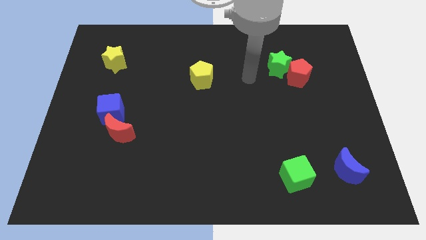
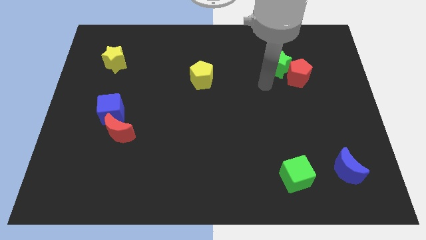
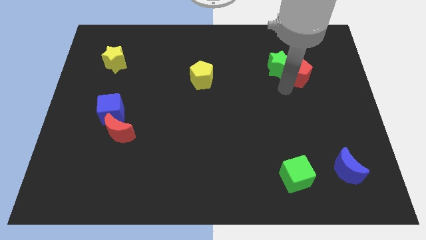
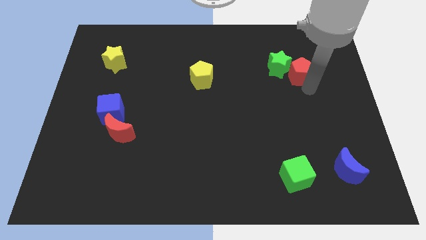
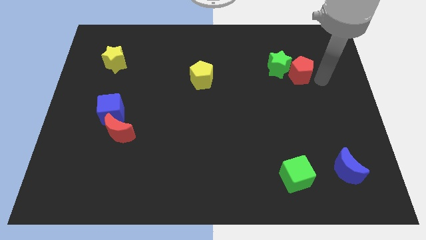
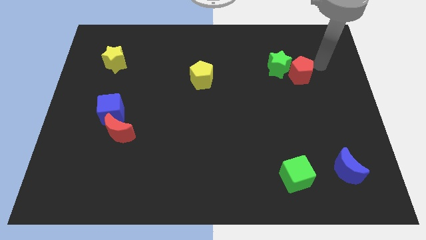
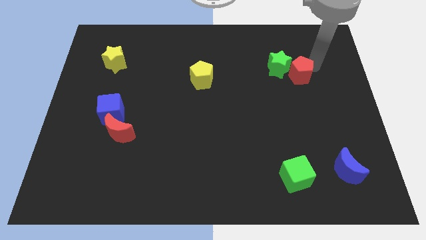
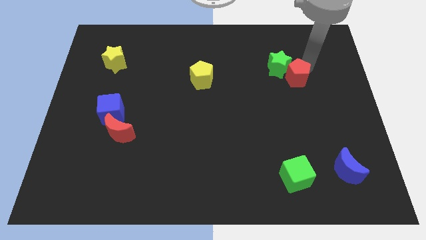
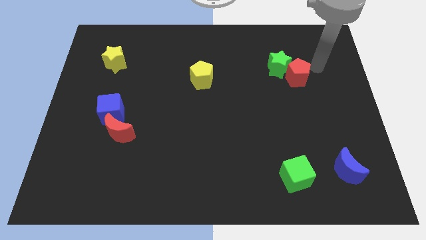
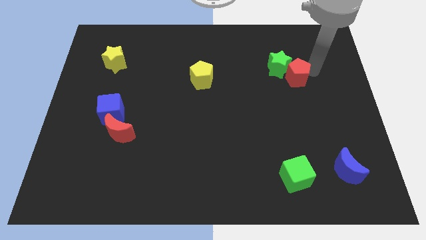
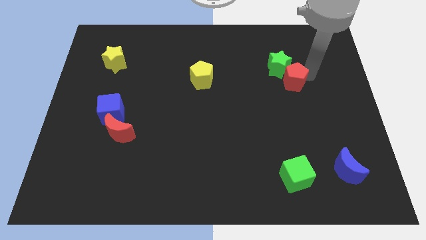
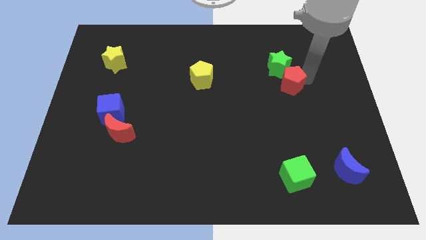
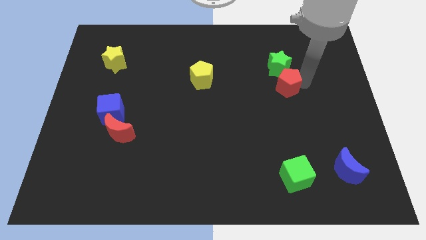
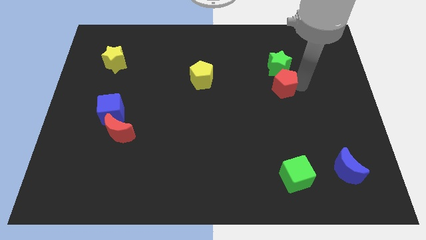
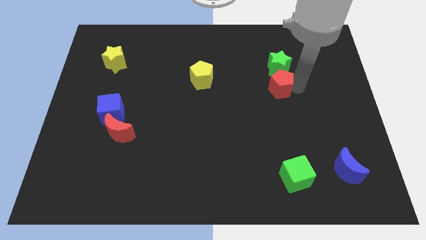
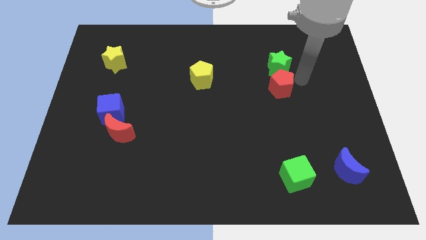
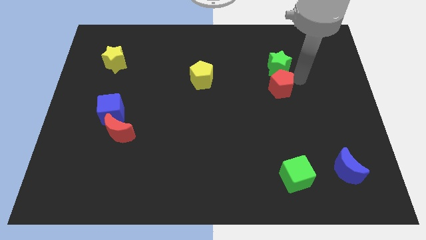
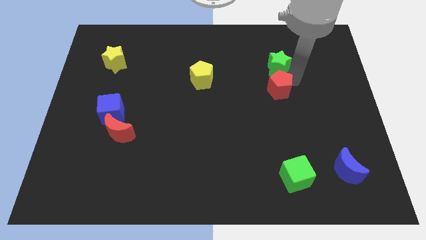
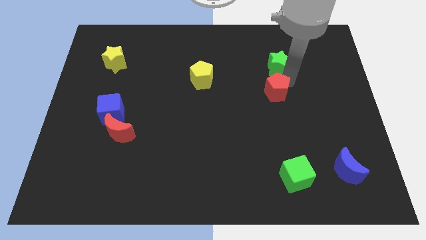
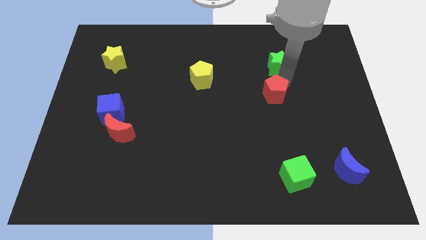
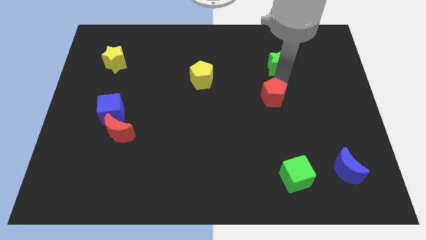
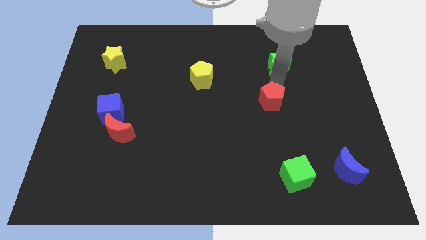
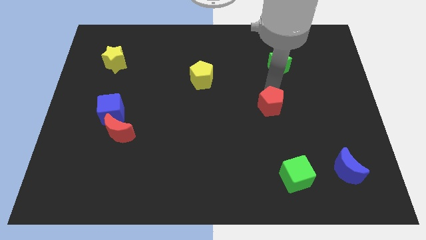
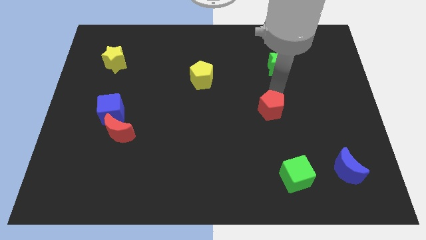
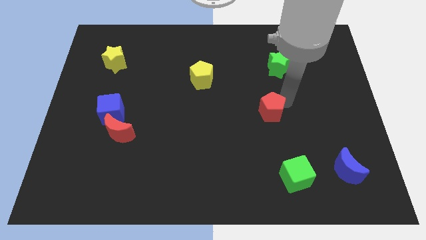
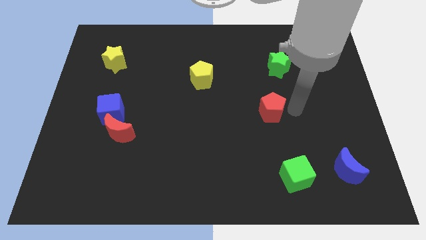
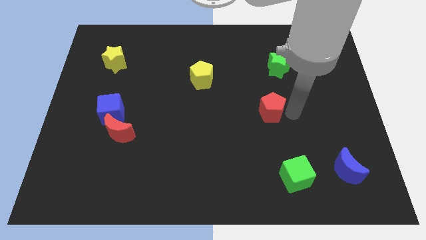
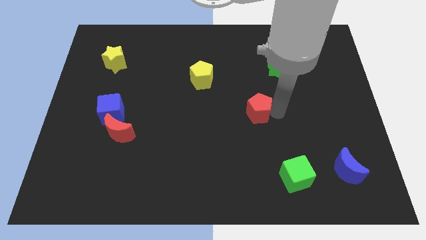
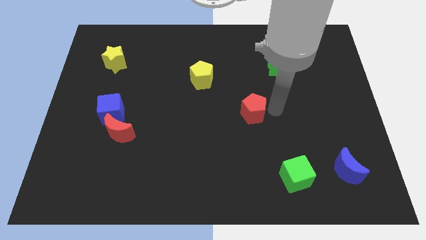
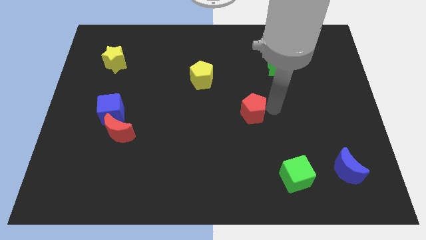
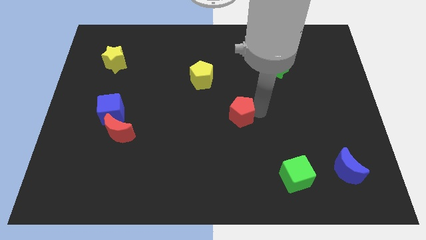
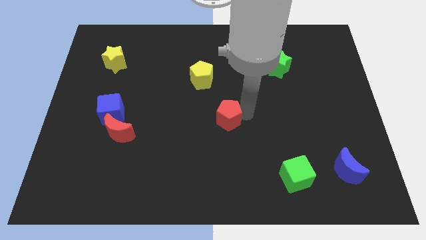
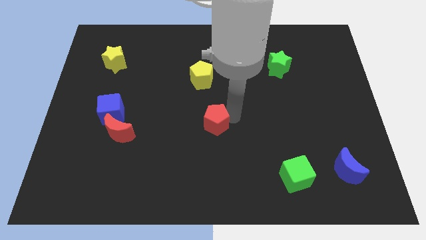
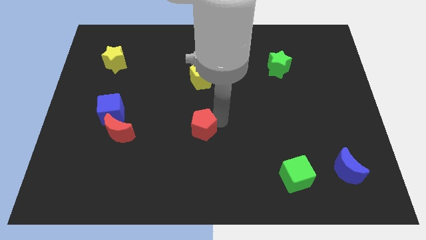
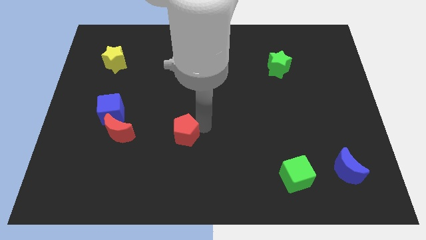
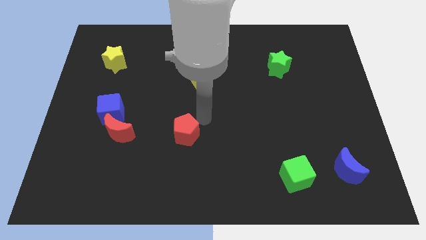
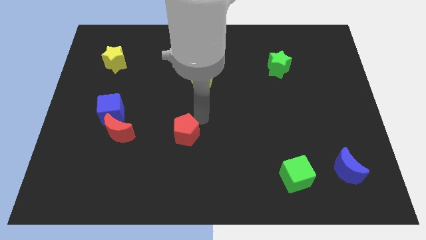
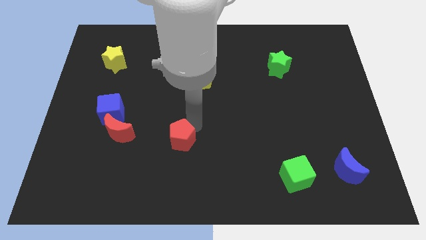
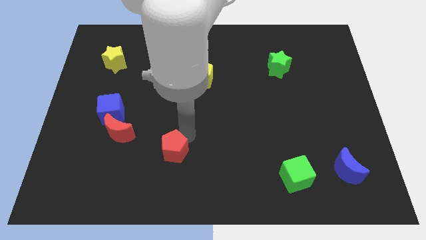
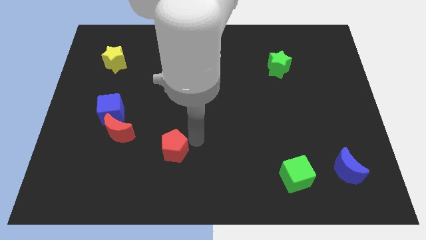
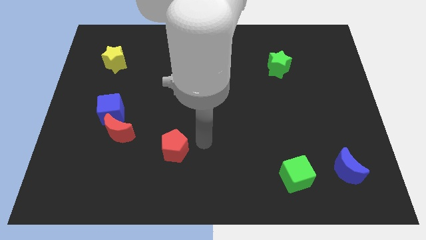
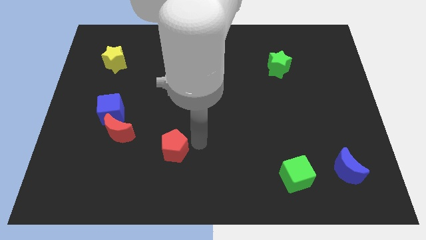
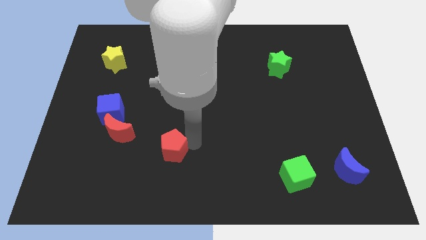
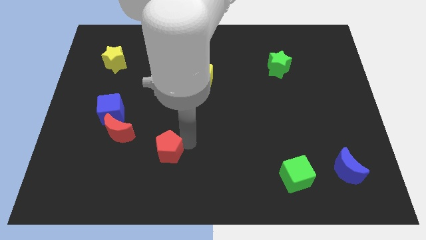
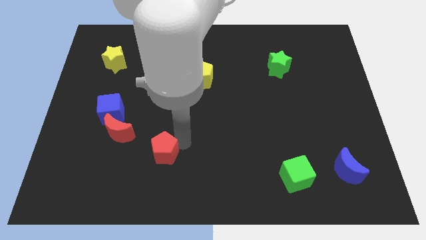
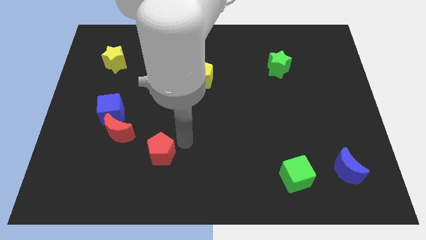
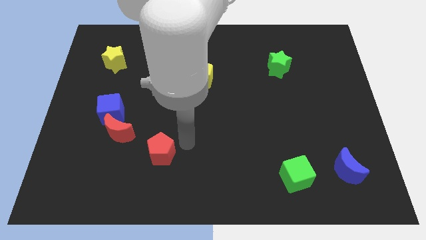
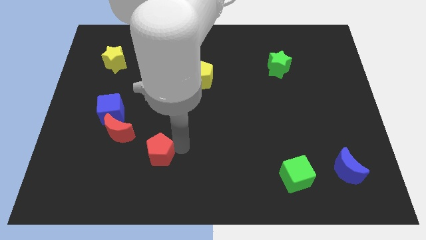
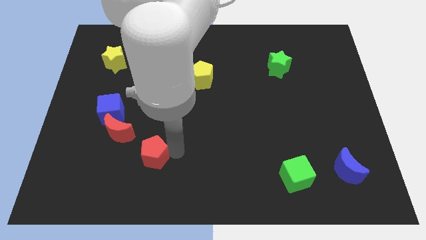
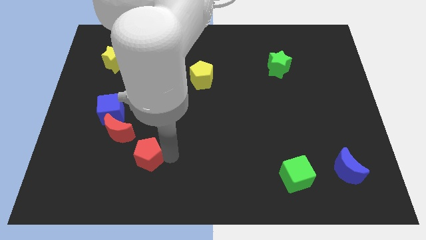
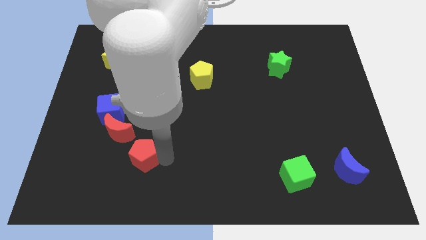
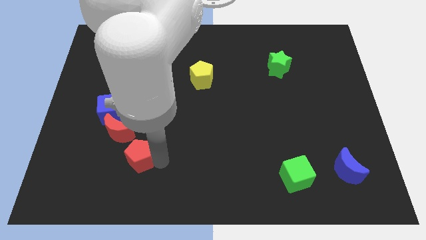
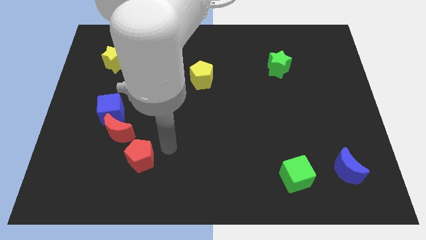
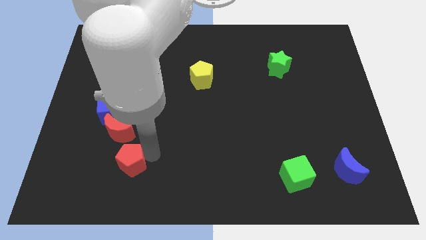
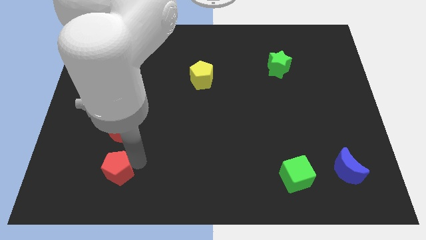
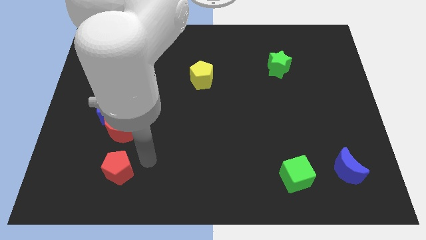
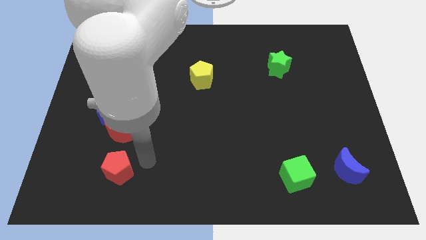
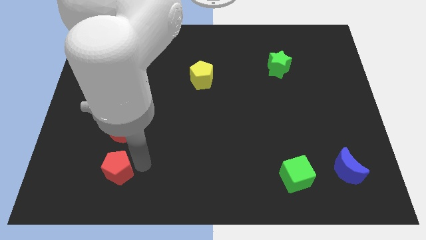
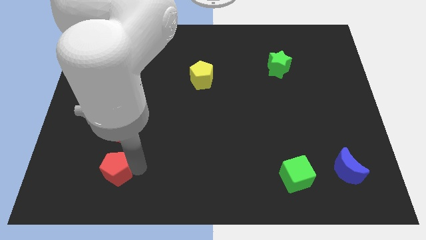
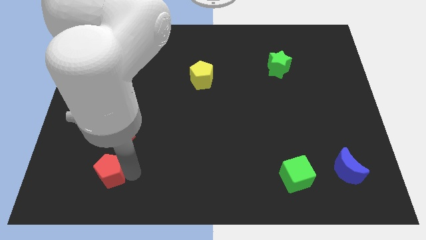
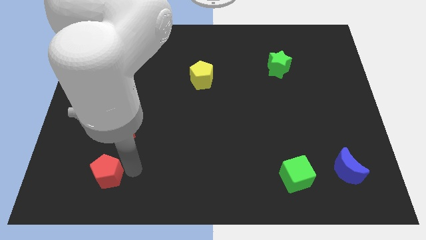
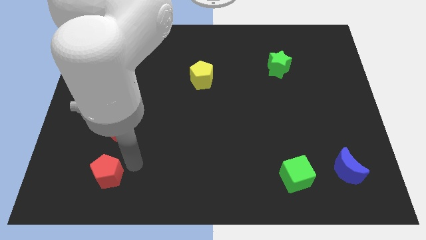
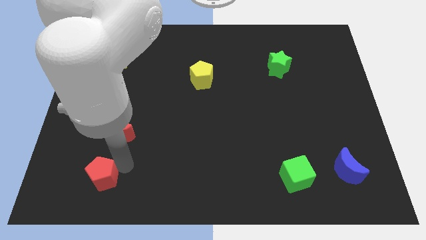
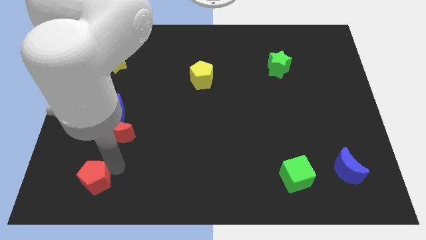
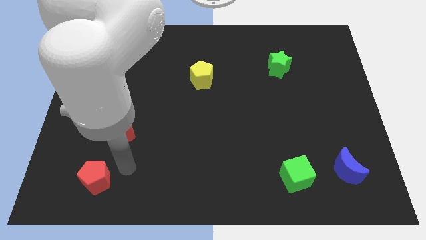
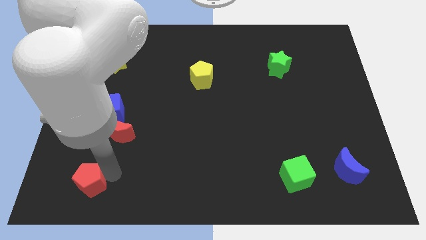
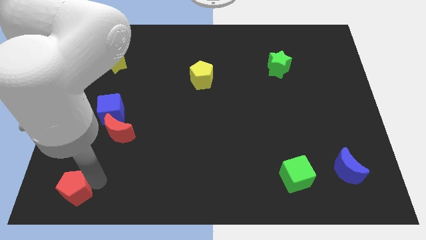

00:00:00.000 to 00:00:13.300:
put the red pentagon to the bottom left corner

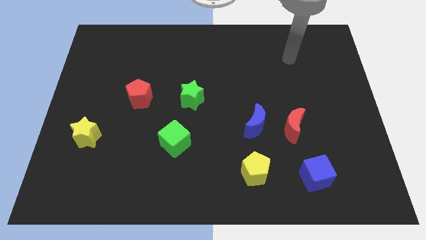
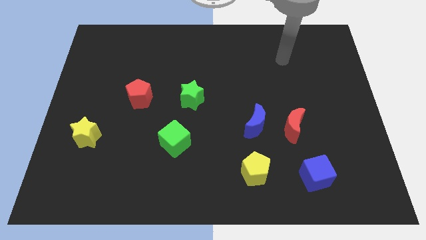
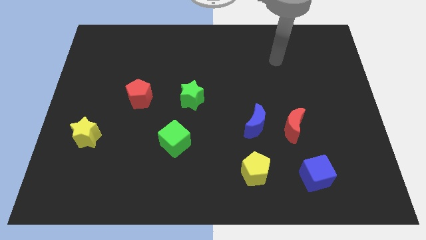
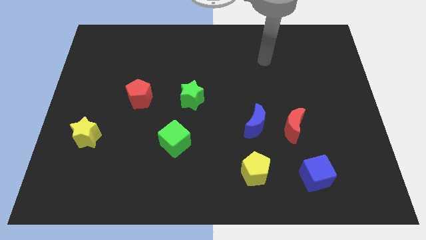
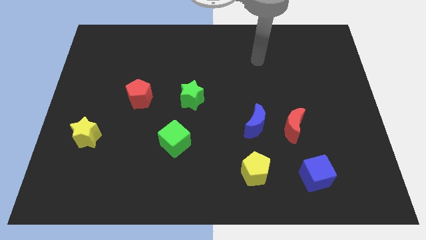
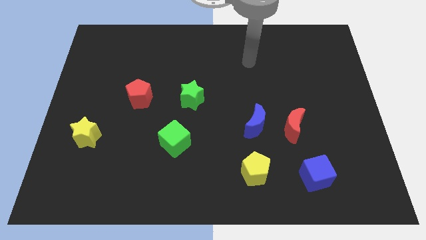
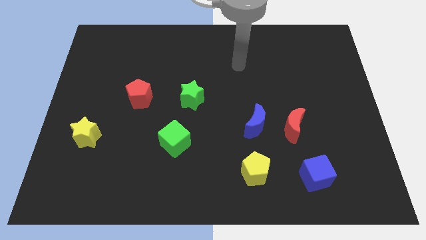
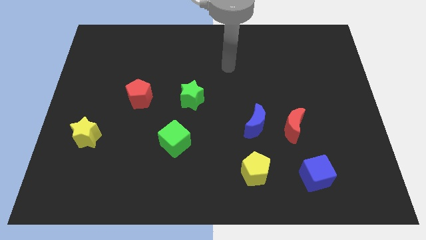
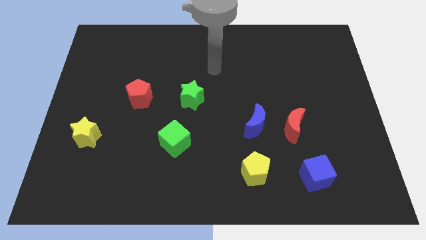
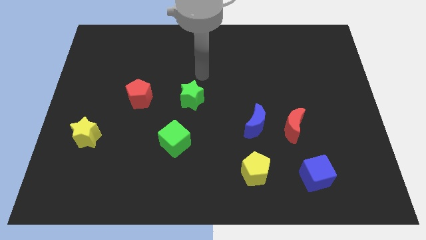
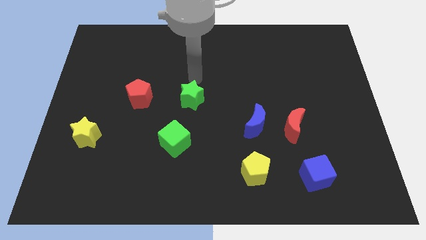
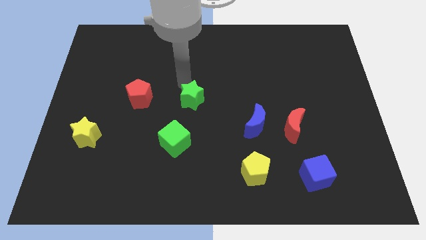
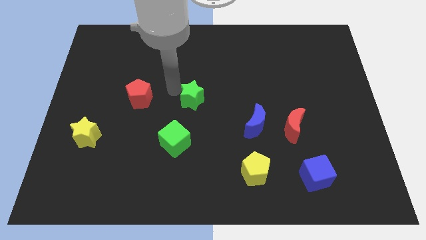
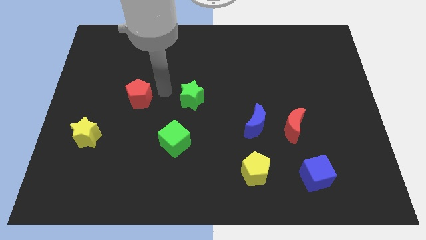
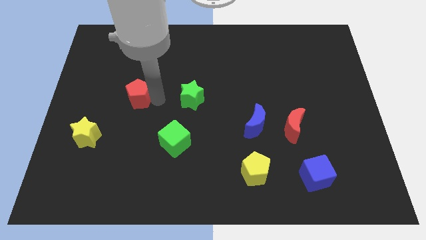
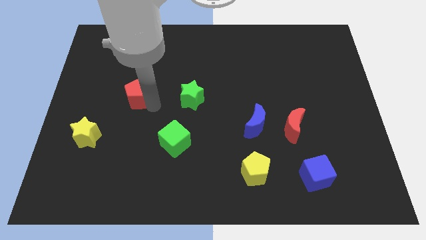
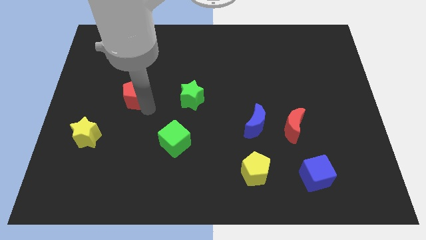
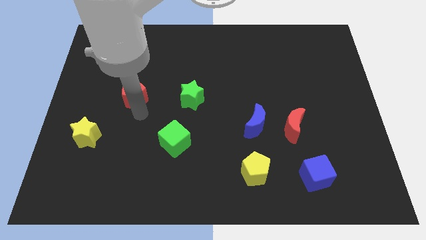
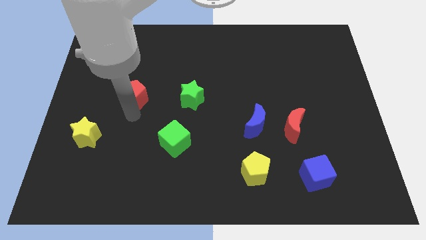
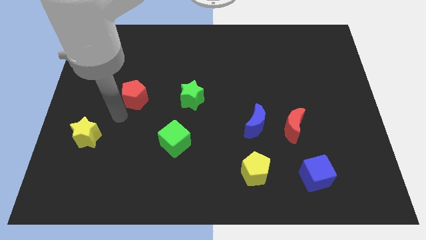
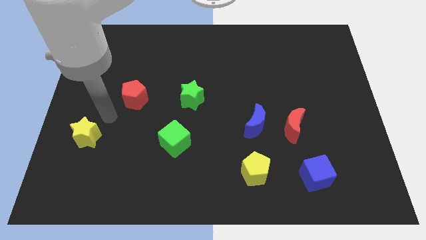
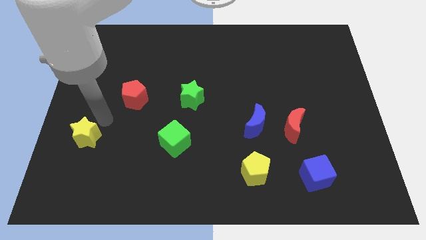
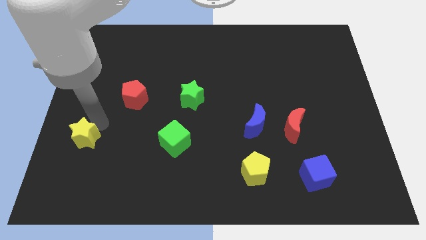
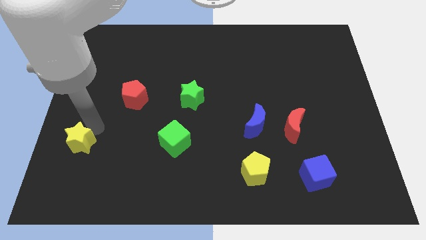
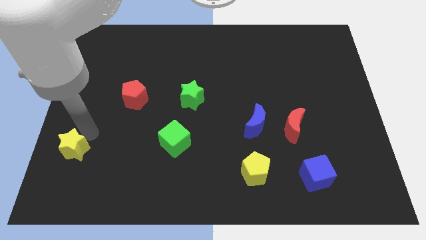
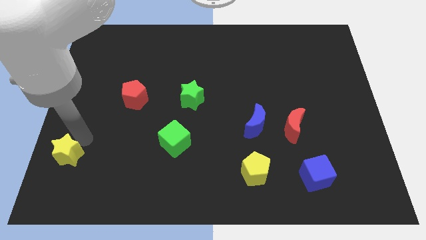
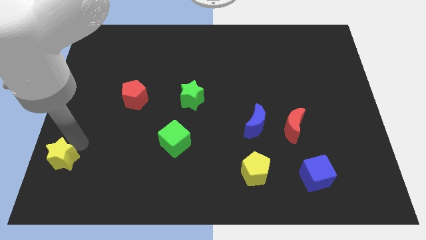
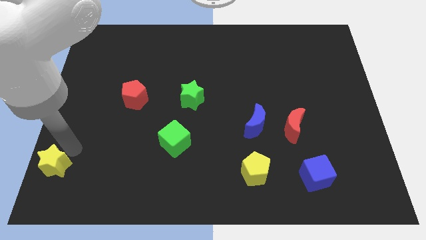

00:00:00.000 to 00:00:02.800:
push the yellow star to the bottom left
